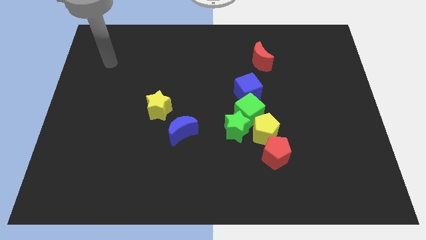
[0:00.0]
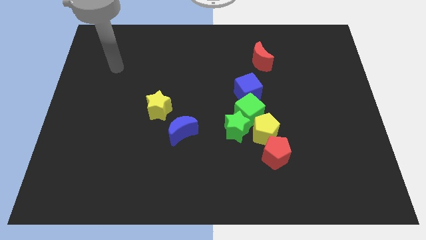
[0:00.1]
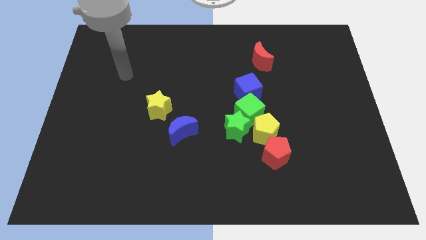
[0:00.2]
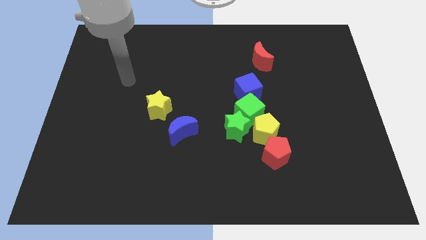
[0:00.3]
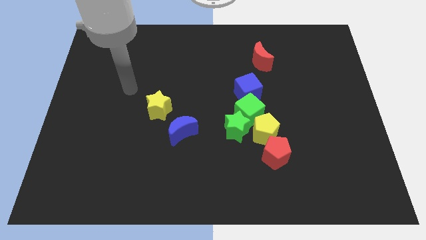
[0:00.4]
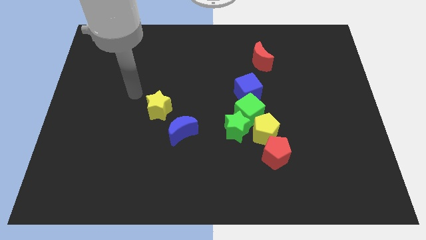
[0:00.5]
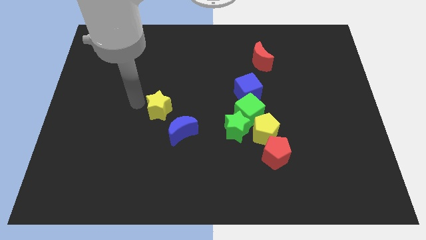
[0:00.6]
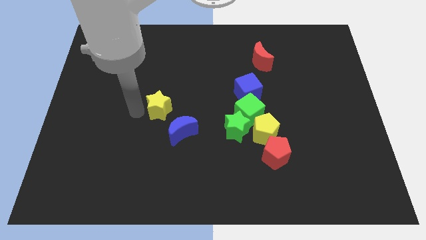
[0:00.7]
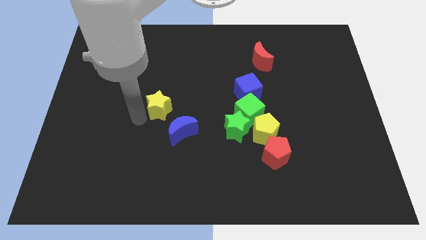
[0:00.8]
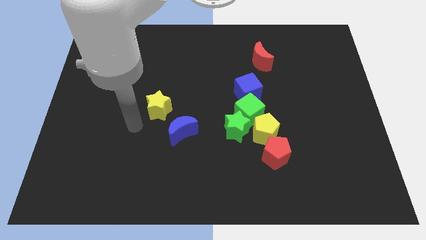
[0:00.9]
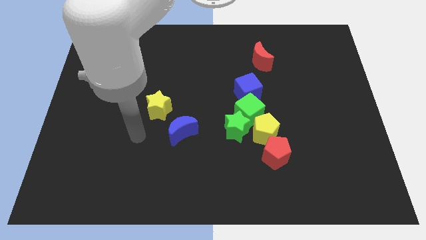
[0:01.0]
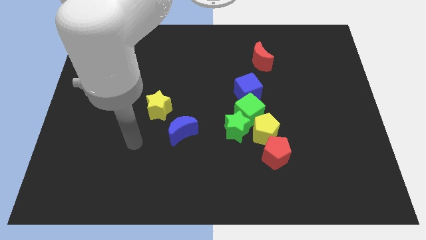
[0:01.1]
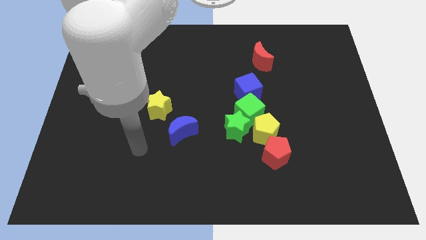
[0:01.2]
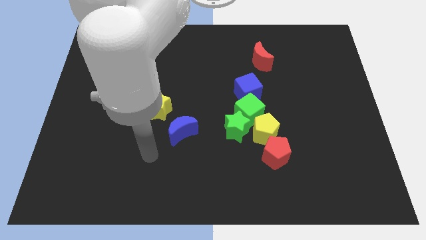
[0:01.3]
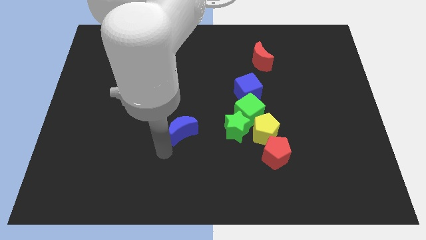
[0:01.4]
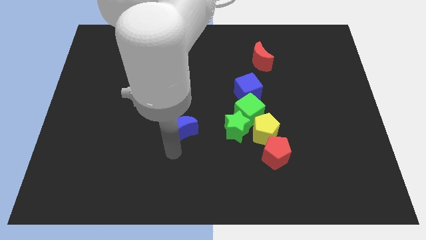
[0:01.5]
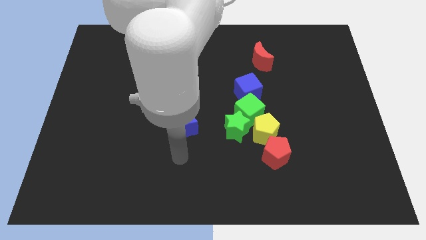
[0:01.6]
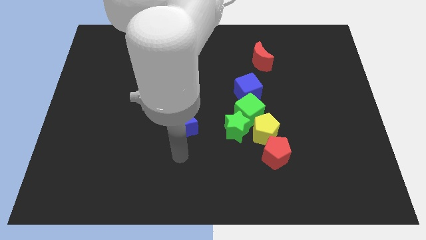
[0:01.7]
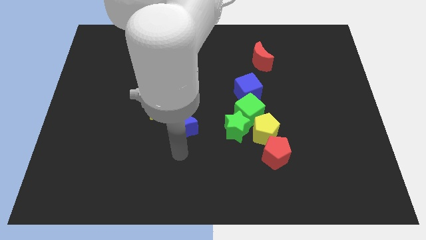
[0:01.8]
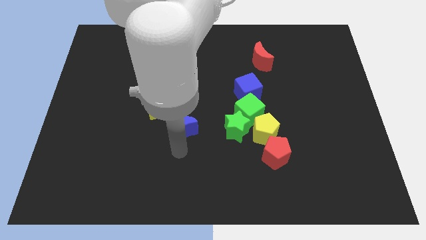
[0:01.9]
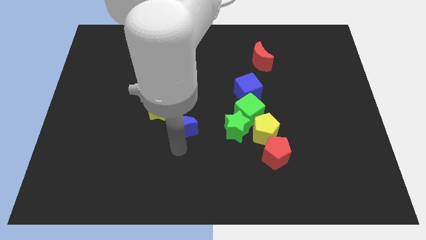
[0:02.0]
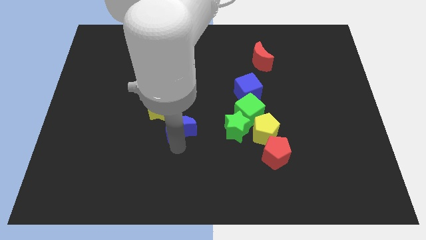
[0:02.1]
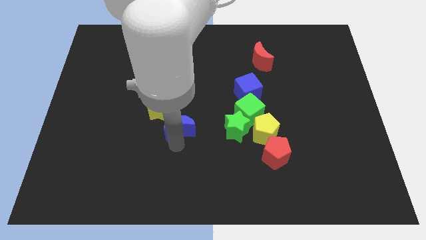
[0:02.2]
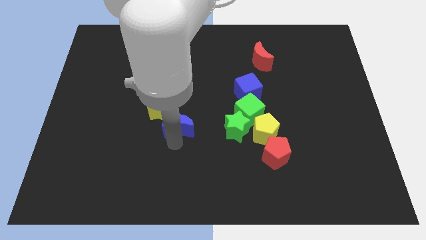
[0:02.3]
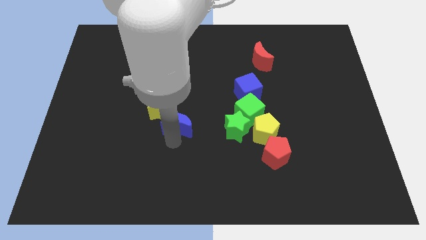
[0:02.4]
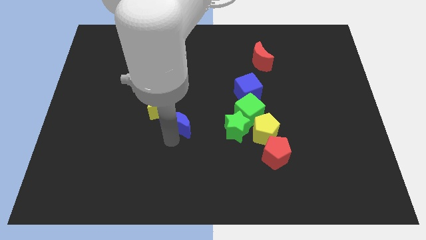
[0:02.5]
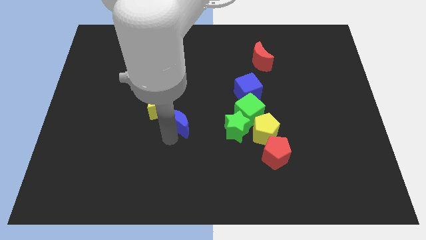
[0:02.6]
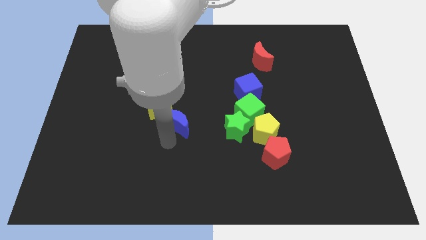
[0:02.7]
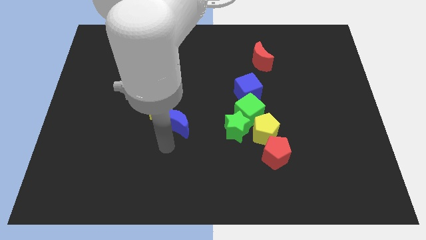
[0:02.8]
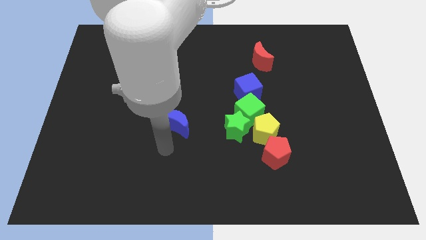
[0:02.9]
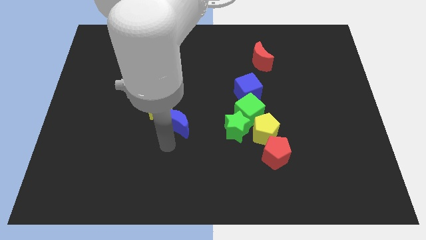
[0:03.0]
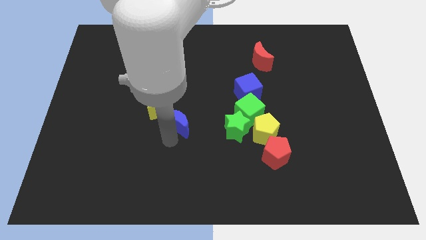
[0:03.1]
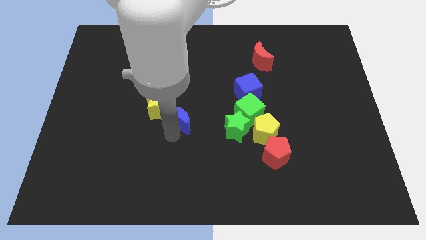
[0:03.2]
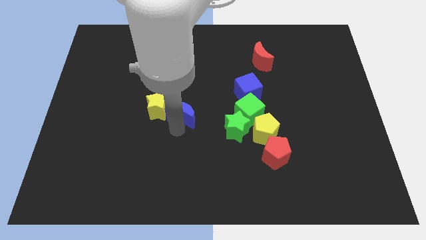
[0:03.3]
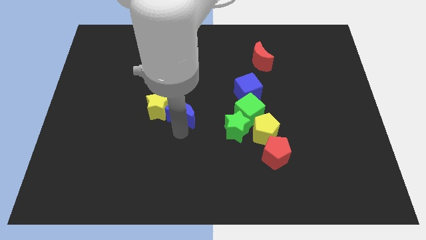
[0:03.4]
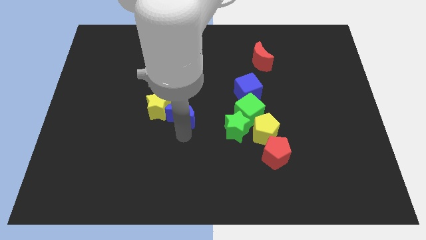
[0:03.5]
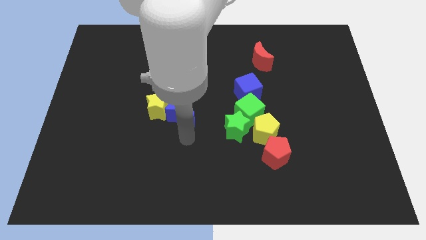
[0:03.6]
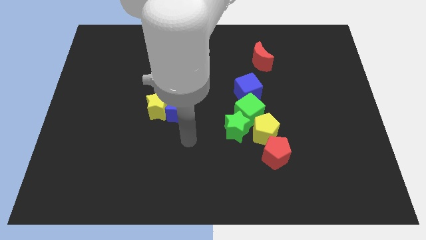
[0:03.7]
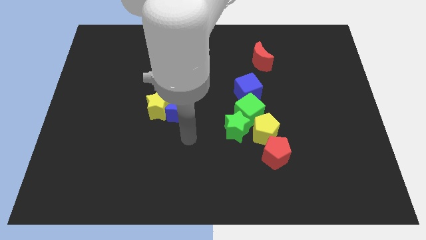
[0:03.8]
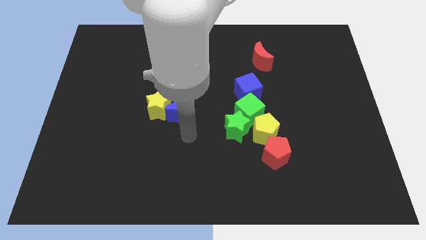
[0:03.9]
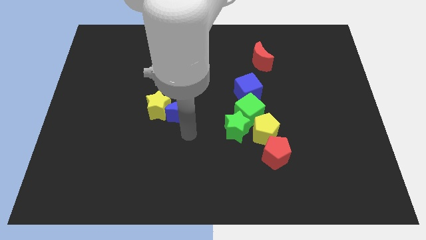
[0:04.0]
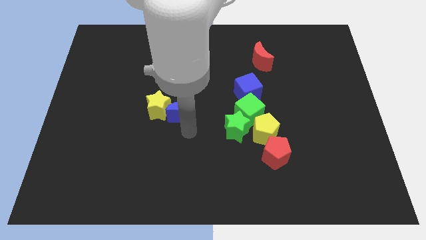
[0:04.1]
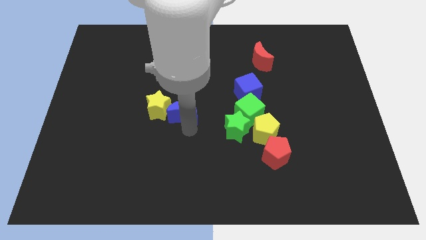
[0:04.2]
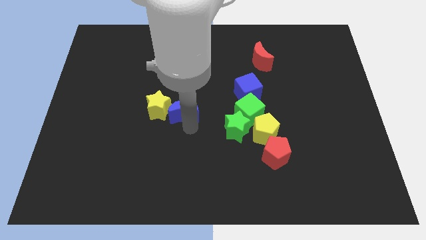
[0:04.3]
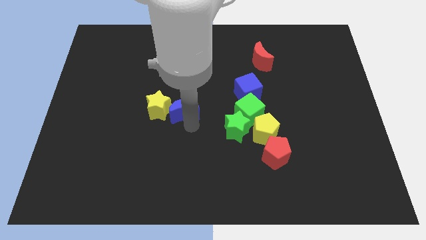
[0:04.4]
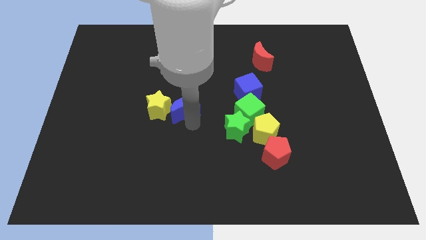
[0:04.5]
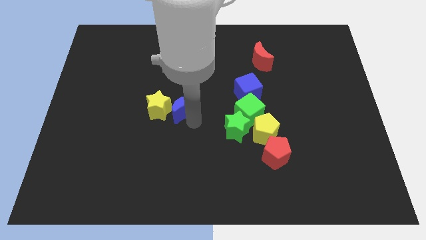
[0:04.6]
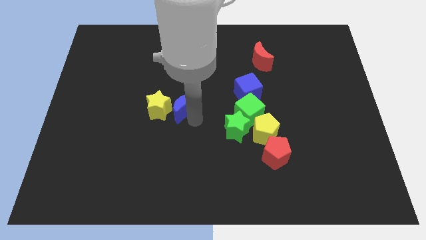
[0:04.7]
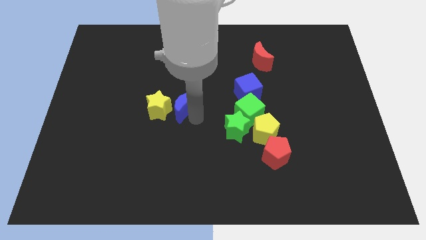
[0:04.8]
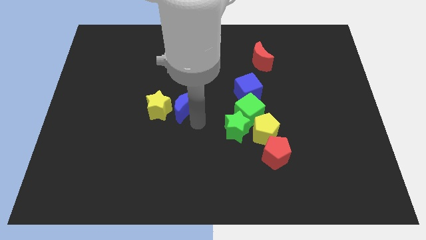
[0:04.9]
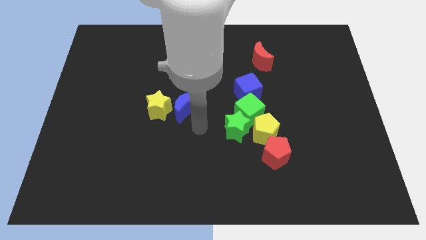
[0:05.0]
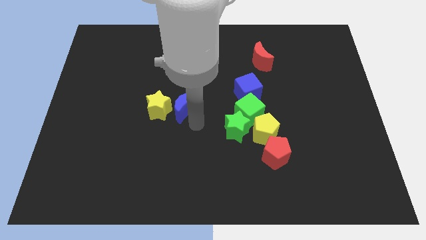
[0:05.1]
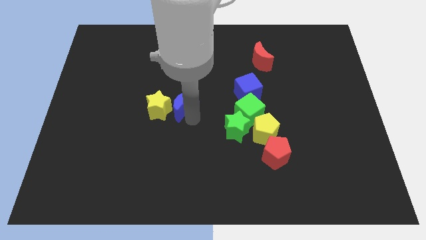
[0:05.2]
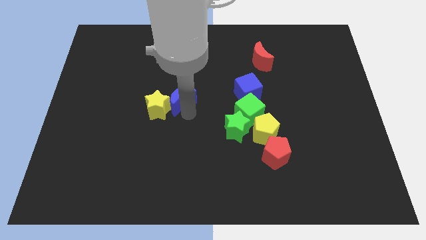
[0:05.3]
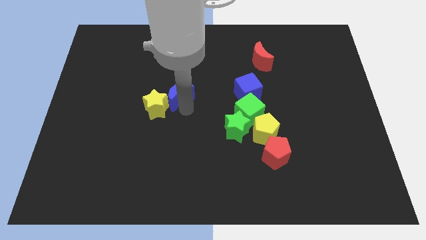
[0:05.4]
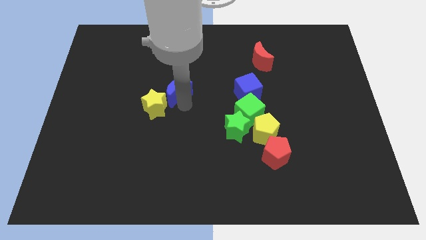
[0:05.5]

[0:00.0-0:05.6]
move the blue moon to the top side of the yellow star

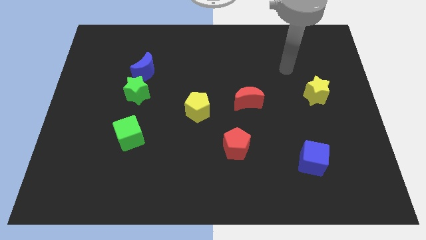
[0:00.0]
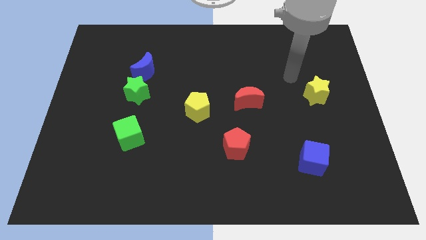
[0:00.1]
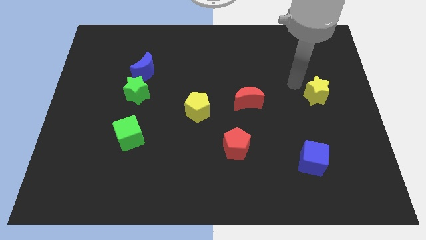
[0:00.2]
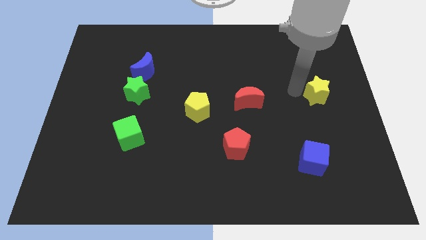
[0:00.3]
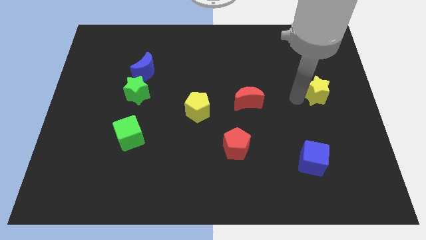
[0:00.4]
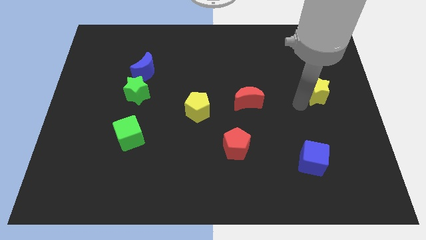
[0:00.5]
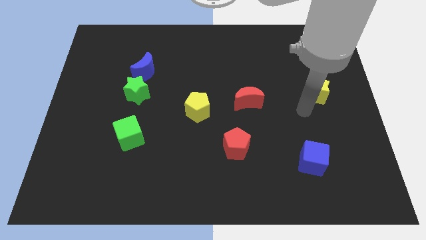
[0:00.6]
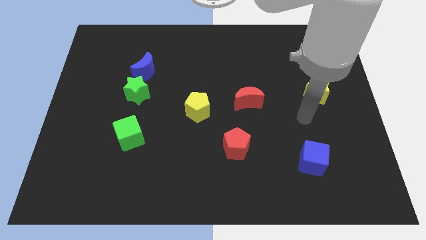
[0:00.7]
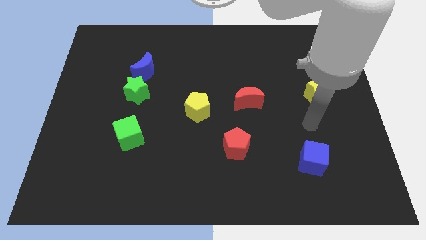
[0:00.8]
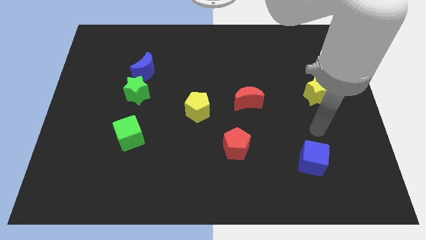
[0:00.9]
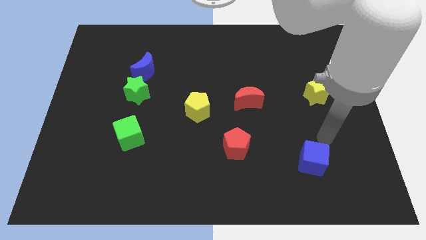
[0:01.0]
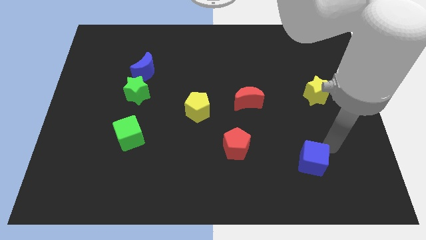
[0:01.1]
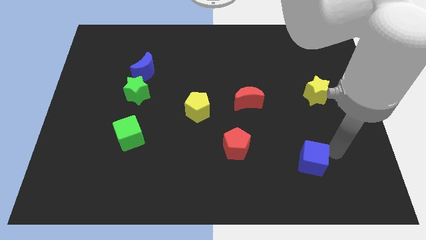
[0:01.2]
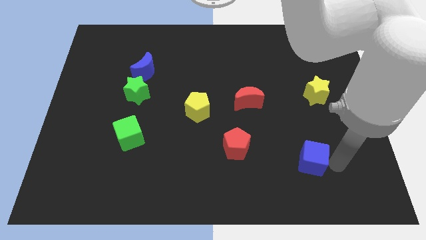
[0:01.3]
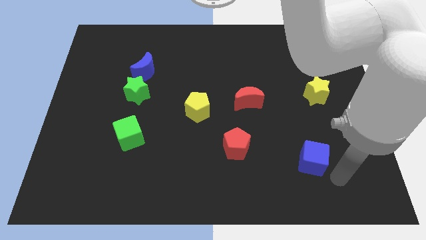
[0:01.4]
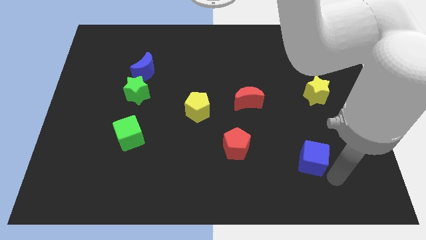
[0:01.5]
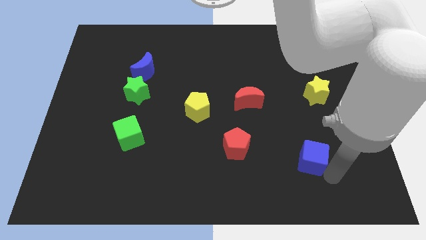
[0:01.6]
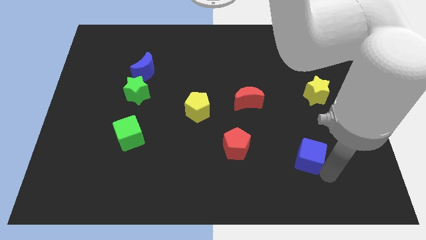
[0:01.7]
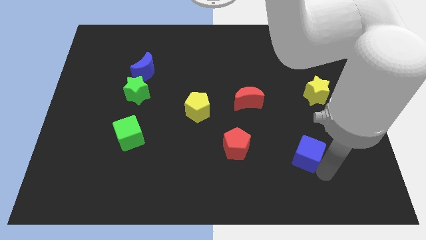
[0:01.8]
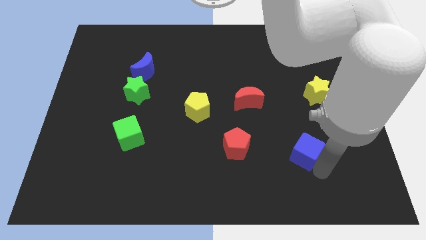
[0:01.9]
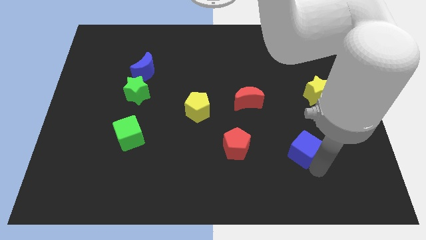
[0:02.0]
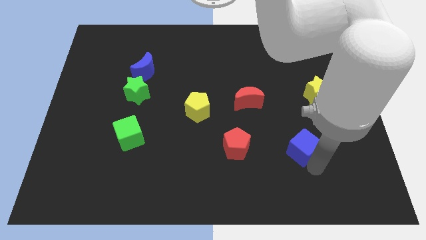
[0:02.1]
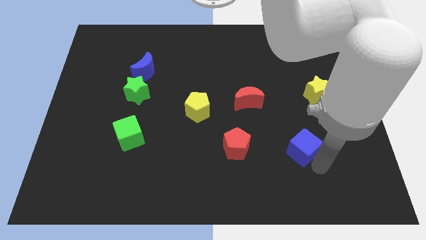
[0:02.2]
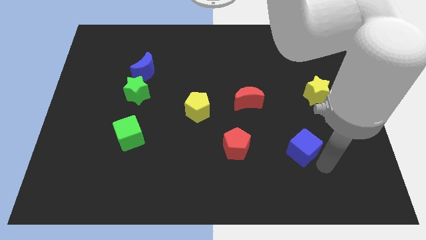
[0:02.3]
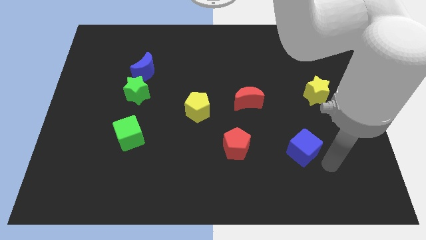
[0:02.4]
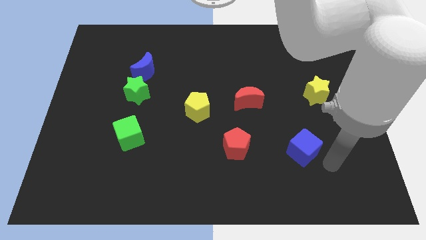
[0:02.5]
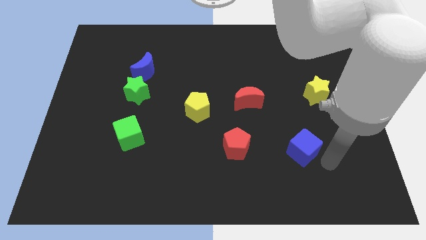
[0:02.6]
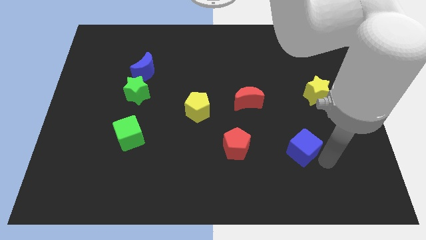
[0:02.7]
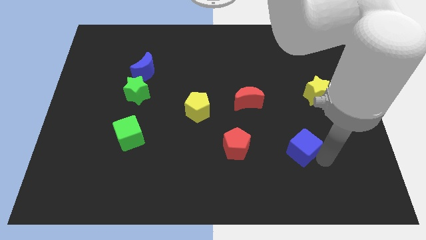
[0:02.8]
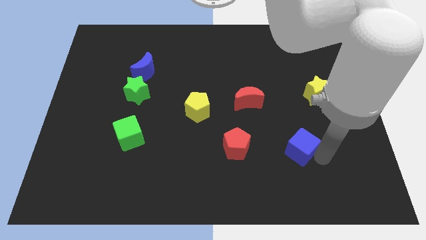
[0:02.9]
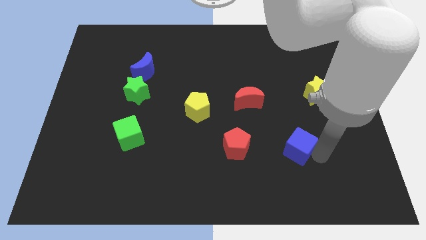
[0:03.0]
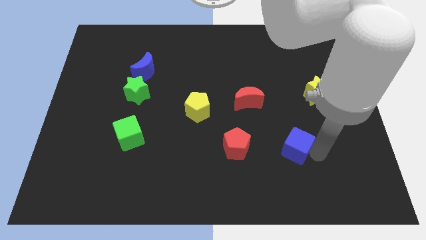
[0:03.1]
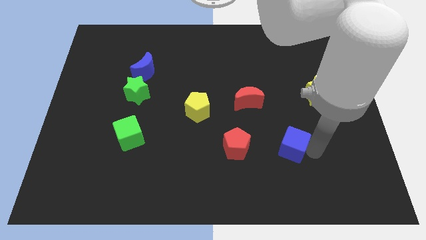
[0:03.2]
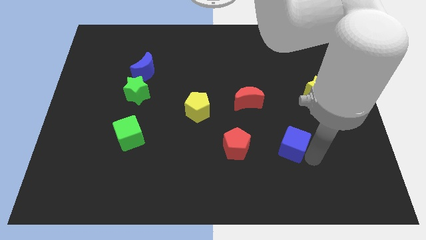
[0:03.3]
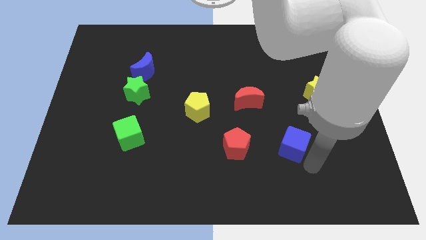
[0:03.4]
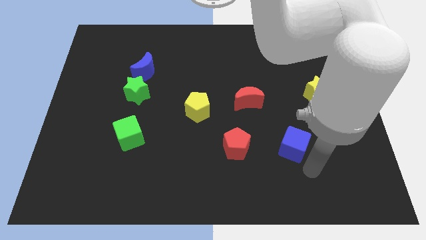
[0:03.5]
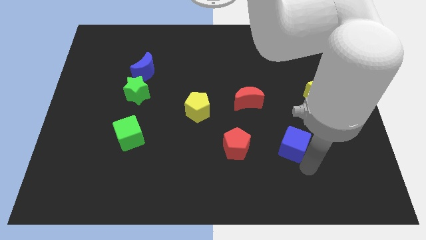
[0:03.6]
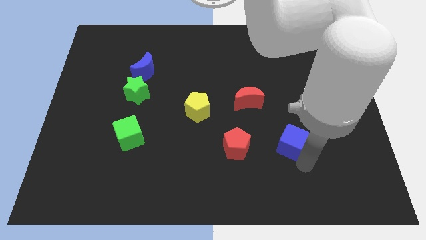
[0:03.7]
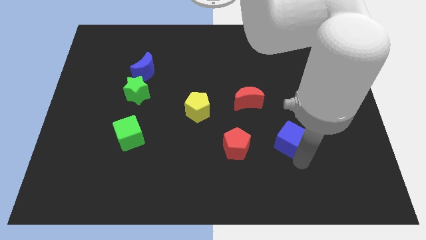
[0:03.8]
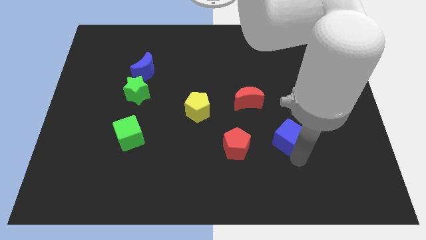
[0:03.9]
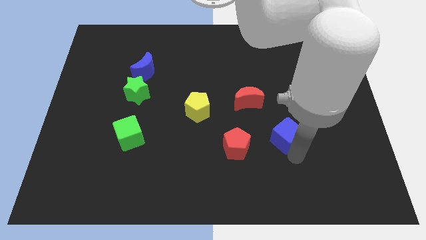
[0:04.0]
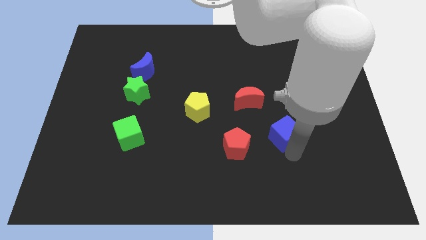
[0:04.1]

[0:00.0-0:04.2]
put the blue cube diagonally down and to the right of the red moon
